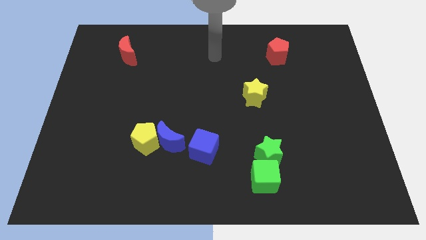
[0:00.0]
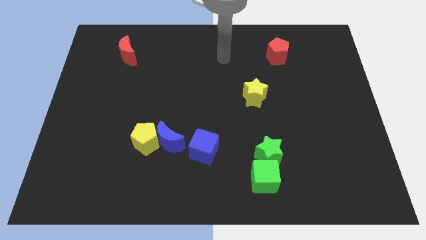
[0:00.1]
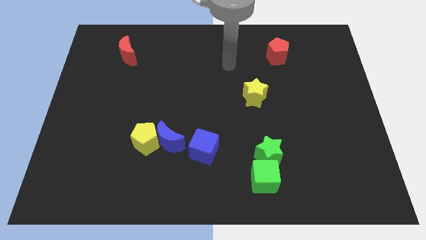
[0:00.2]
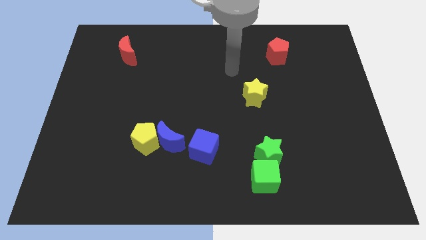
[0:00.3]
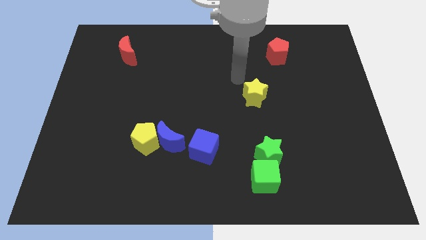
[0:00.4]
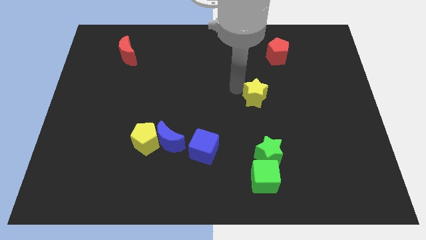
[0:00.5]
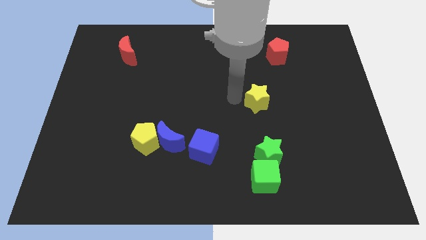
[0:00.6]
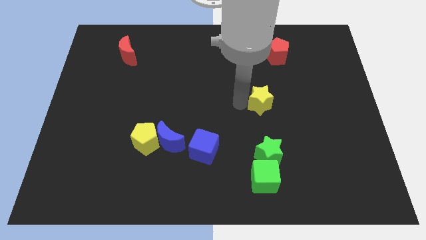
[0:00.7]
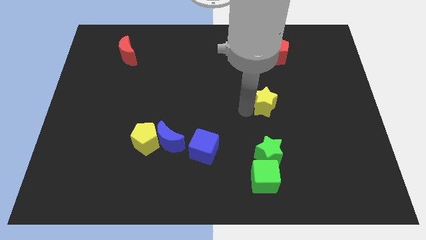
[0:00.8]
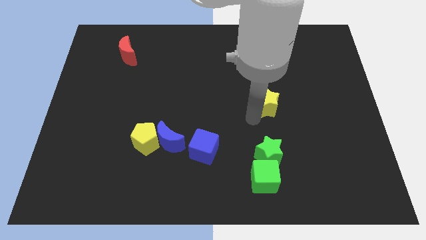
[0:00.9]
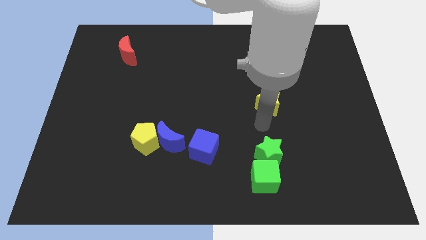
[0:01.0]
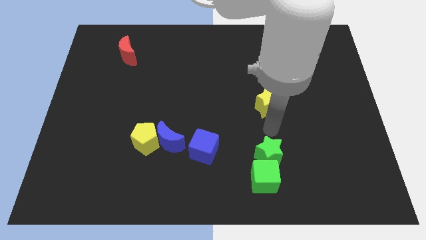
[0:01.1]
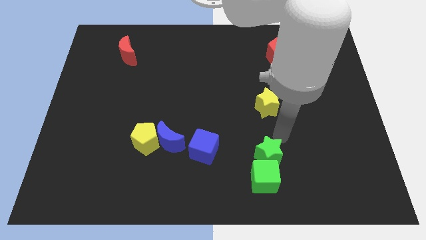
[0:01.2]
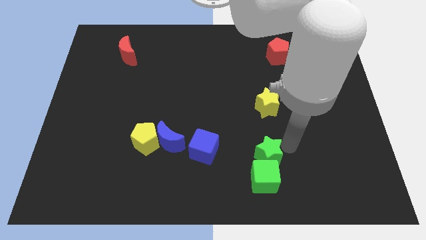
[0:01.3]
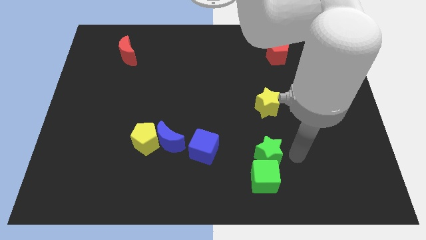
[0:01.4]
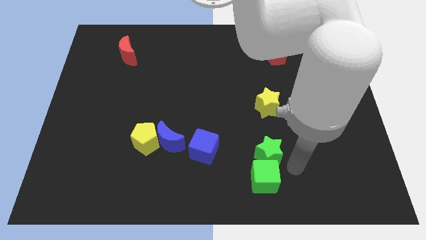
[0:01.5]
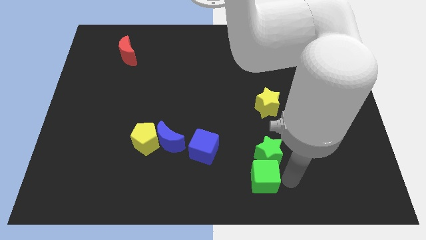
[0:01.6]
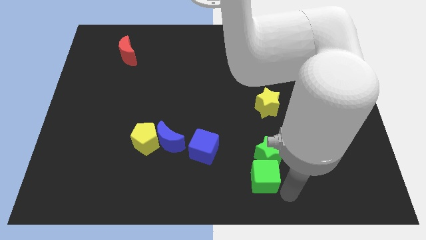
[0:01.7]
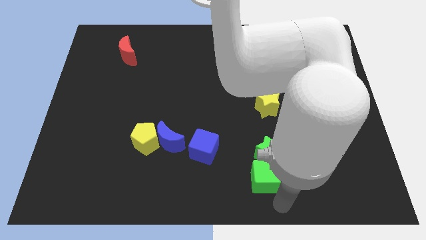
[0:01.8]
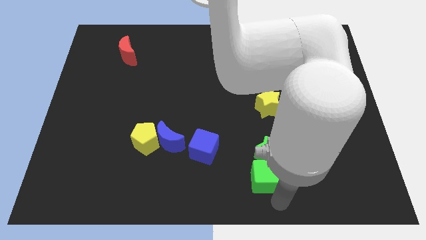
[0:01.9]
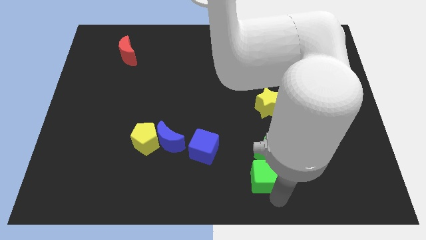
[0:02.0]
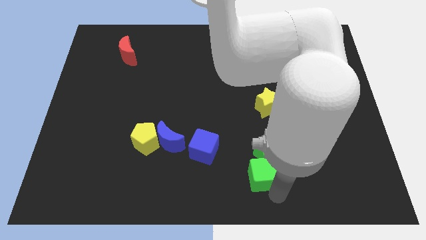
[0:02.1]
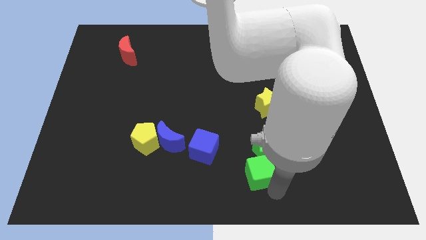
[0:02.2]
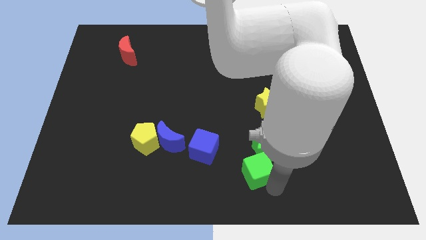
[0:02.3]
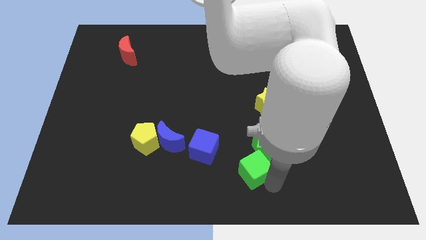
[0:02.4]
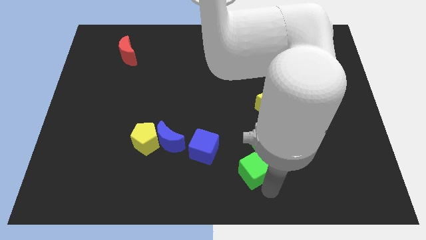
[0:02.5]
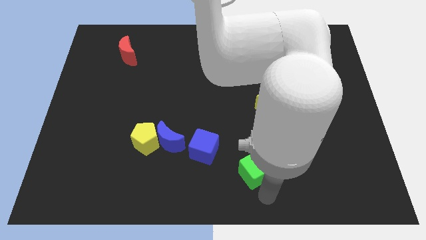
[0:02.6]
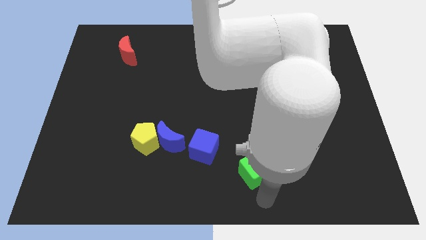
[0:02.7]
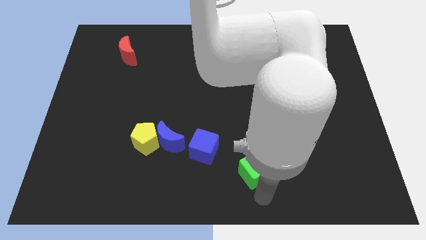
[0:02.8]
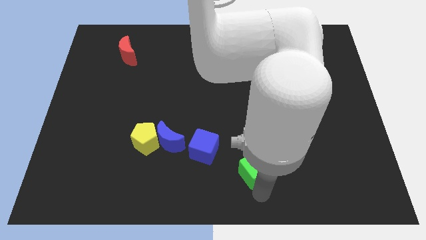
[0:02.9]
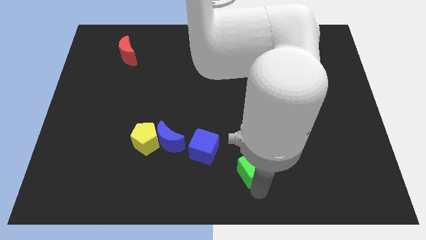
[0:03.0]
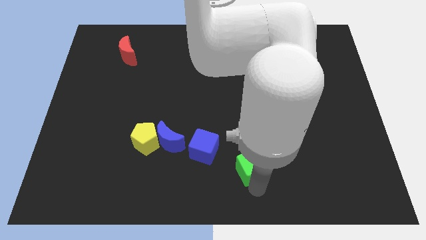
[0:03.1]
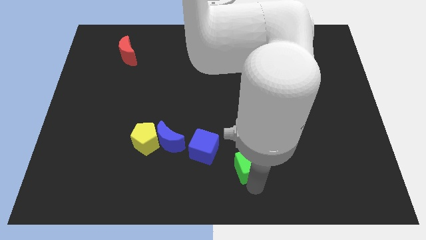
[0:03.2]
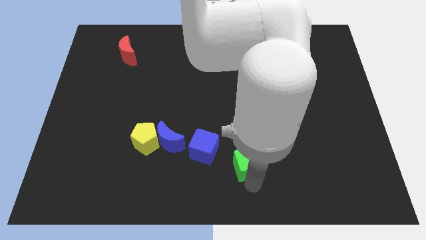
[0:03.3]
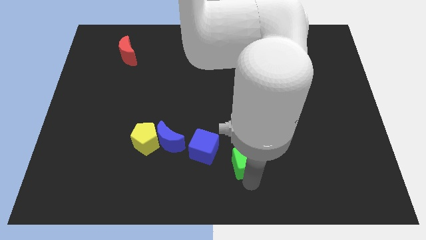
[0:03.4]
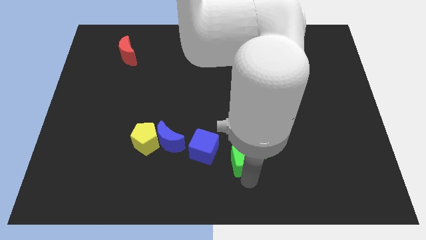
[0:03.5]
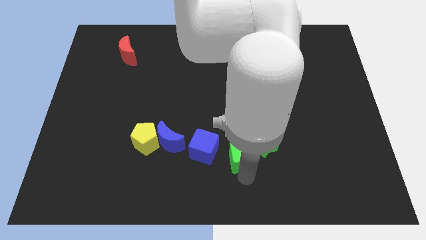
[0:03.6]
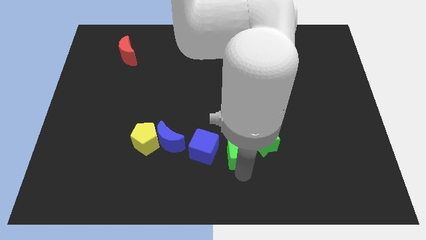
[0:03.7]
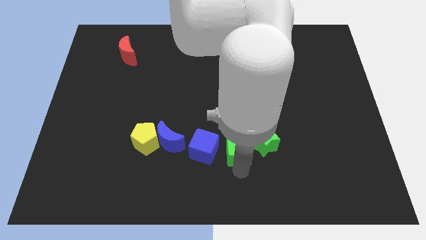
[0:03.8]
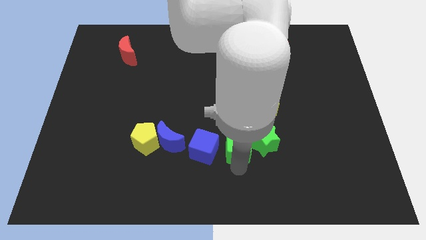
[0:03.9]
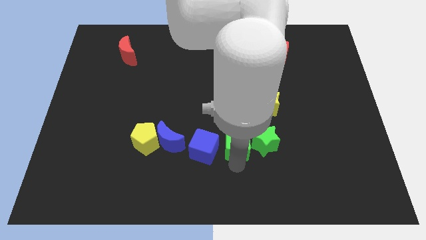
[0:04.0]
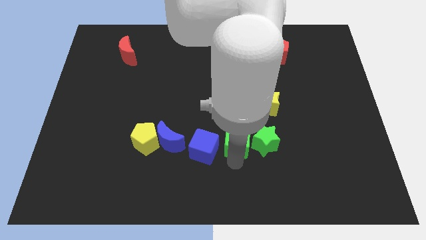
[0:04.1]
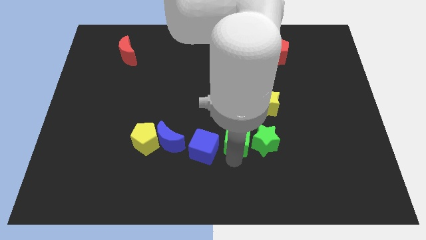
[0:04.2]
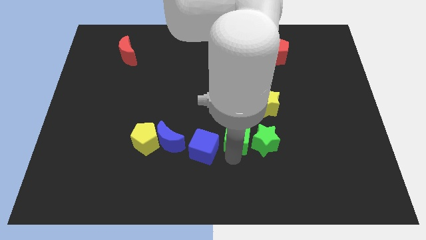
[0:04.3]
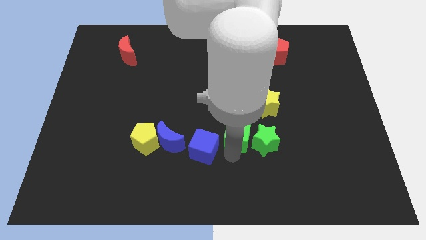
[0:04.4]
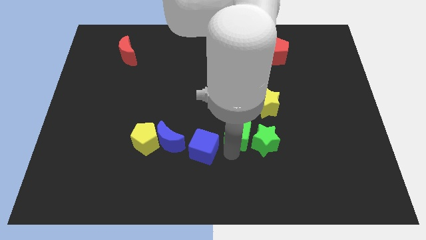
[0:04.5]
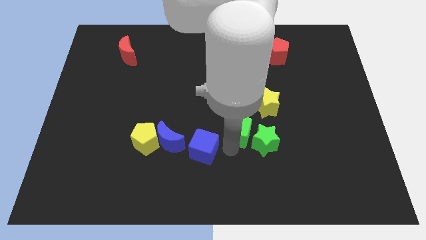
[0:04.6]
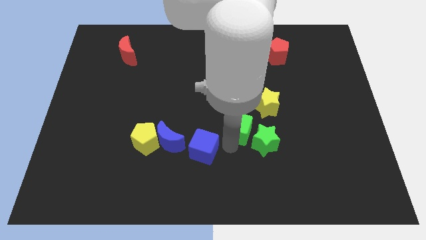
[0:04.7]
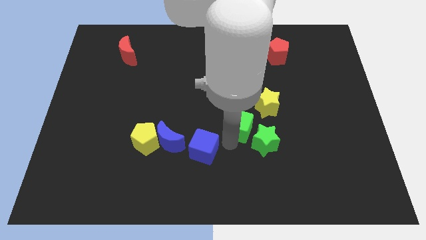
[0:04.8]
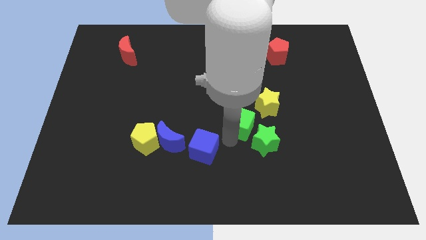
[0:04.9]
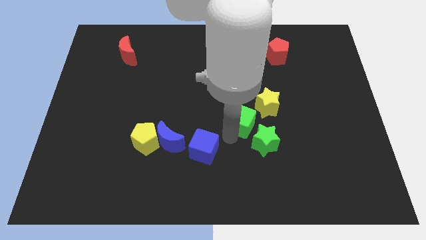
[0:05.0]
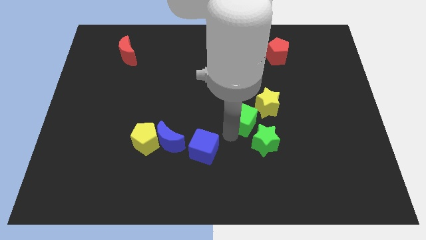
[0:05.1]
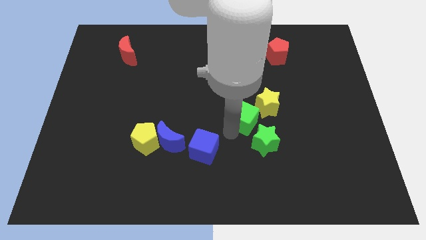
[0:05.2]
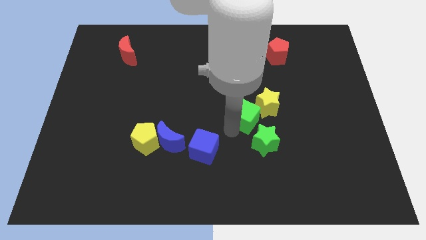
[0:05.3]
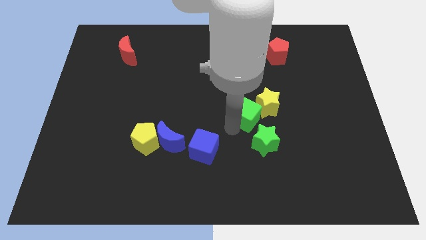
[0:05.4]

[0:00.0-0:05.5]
slide the green cube to the yellow star

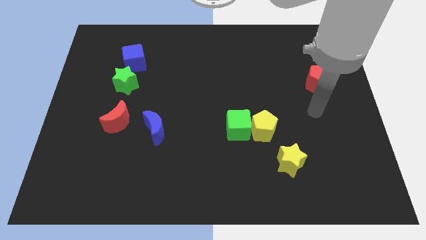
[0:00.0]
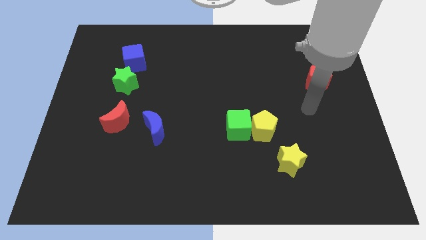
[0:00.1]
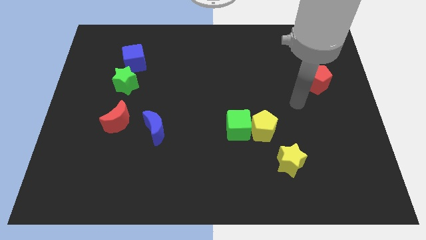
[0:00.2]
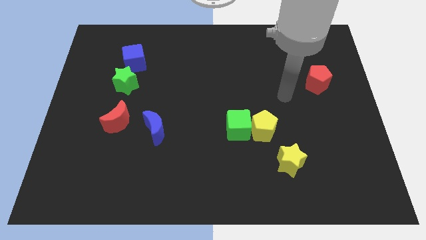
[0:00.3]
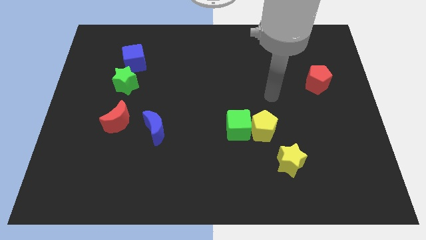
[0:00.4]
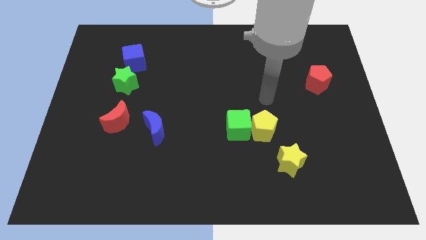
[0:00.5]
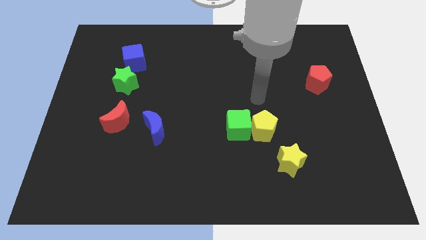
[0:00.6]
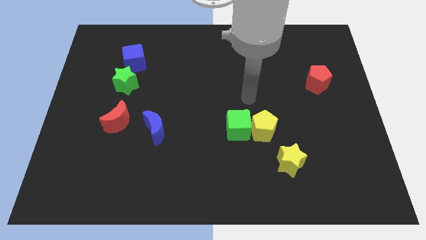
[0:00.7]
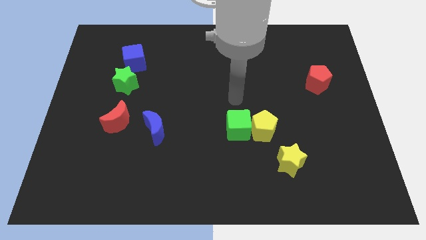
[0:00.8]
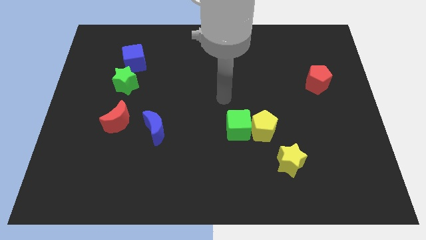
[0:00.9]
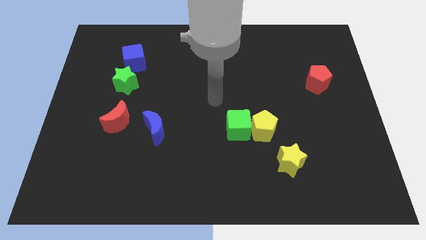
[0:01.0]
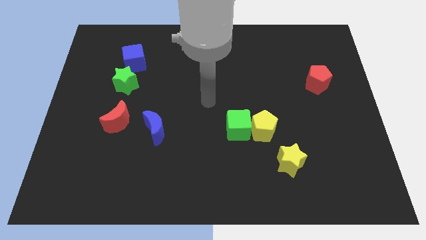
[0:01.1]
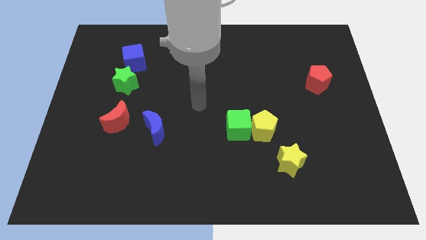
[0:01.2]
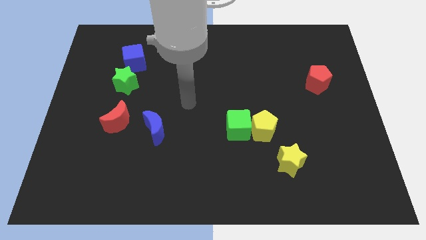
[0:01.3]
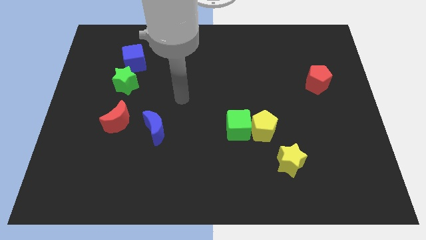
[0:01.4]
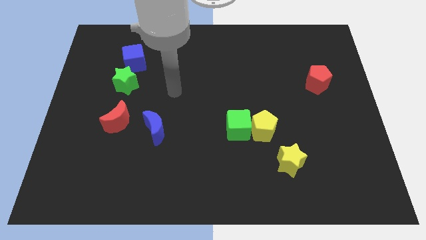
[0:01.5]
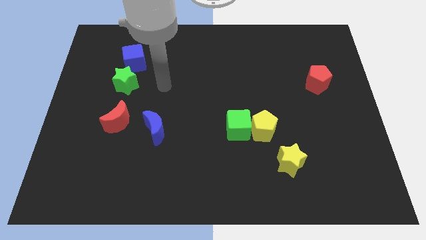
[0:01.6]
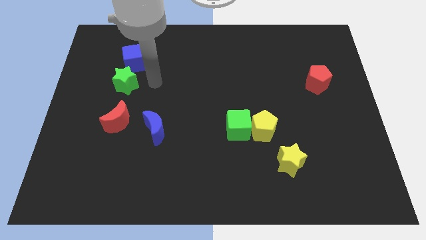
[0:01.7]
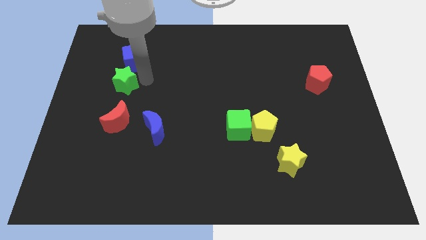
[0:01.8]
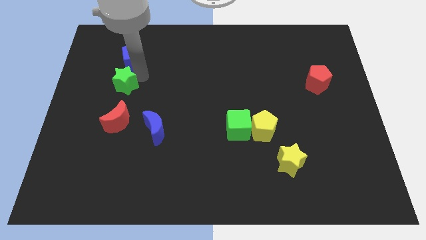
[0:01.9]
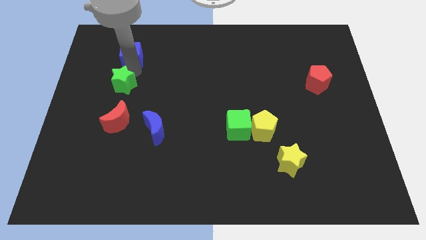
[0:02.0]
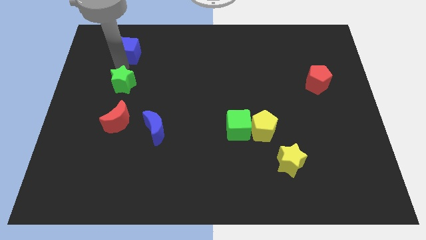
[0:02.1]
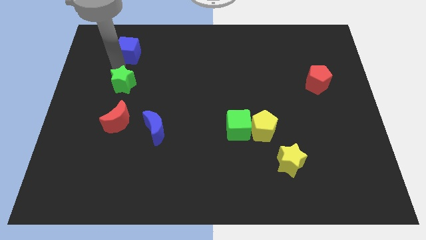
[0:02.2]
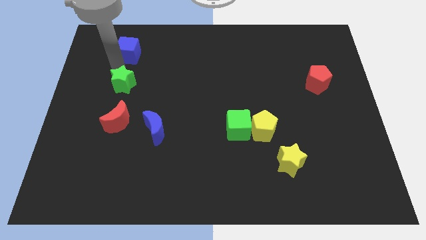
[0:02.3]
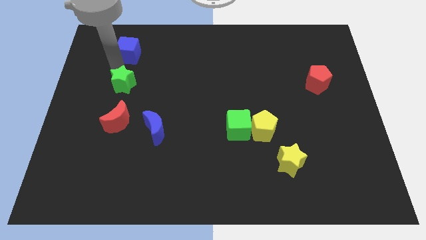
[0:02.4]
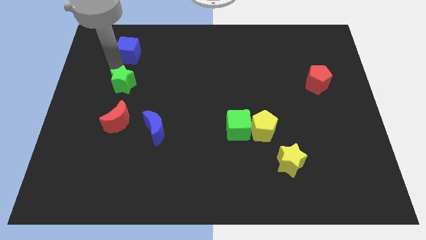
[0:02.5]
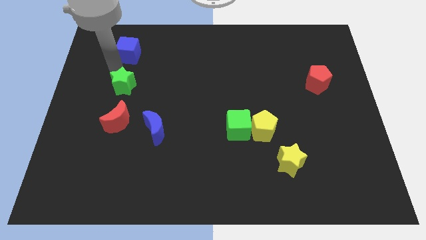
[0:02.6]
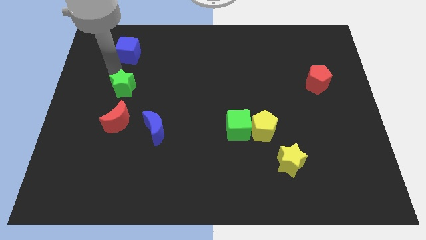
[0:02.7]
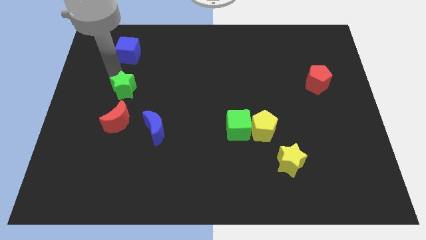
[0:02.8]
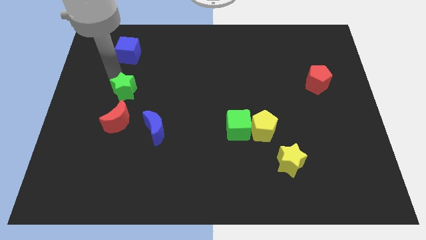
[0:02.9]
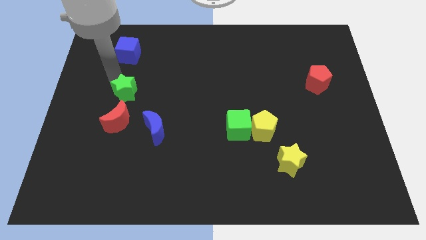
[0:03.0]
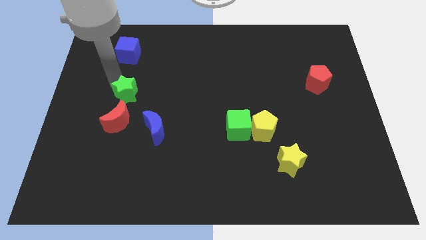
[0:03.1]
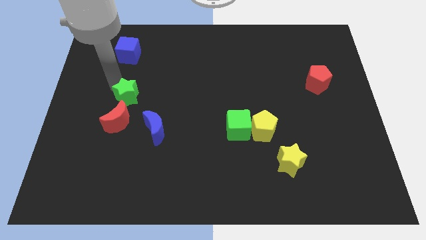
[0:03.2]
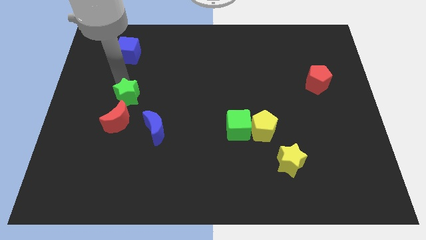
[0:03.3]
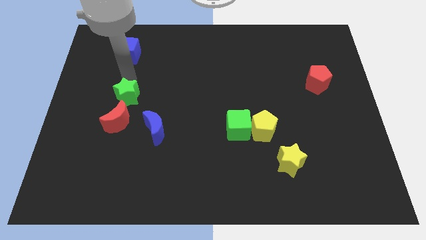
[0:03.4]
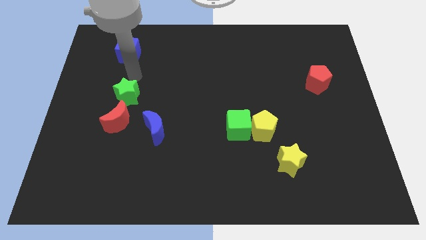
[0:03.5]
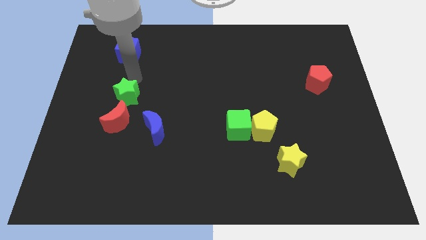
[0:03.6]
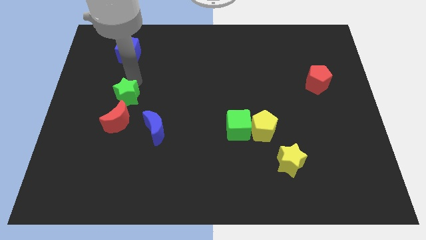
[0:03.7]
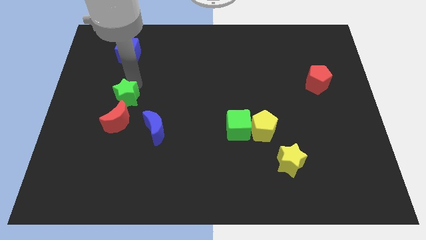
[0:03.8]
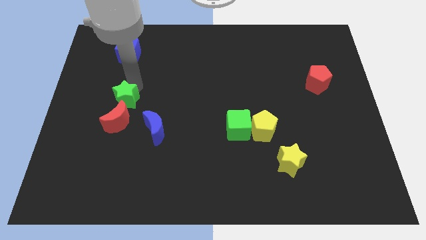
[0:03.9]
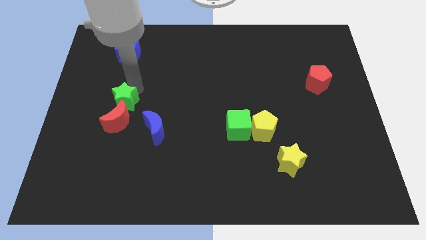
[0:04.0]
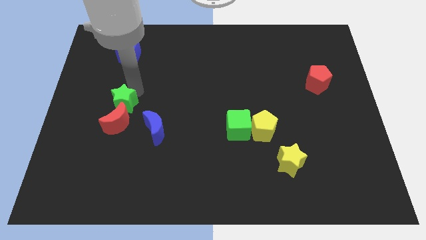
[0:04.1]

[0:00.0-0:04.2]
slide the green star towards the red moon
